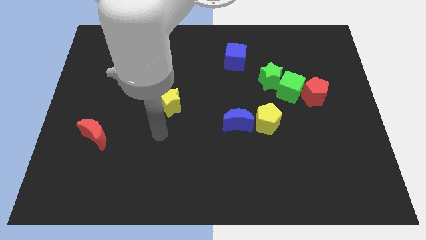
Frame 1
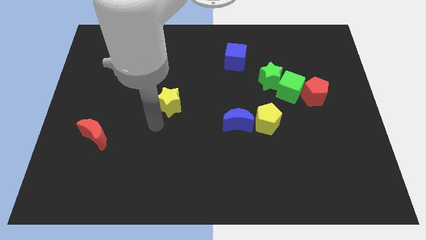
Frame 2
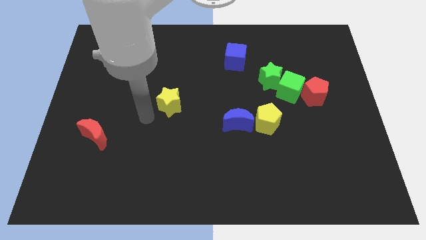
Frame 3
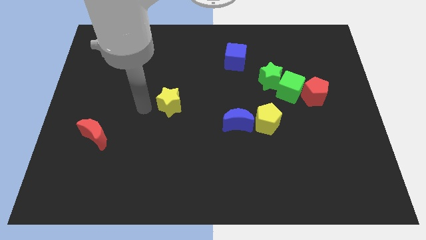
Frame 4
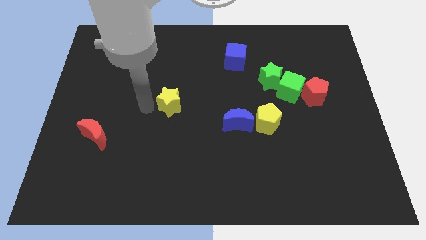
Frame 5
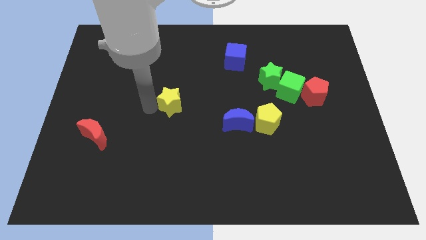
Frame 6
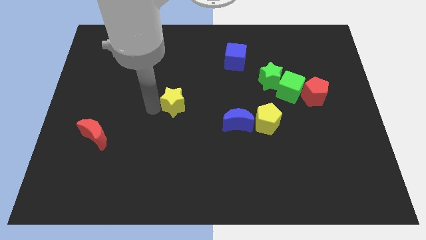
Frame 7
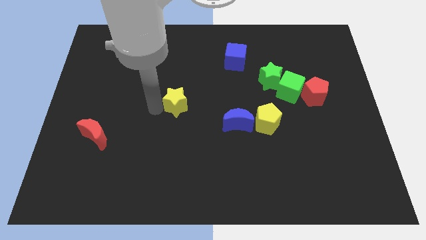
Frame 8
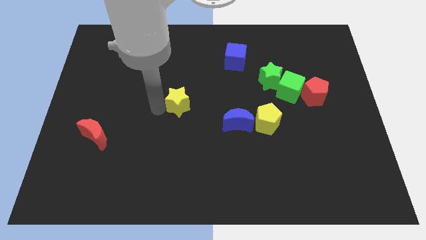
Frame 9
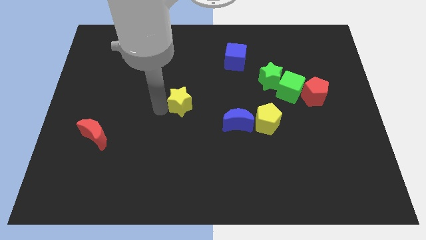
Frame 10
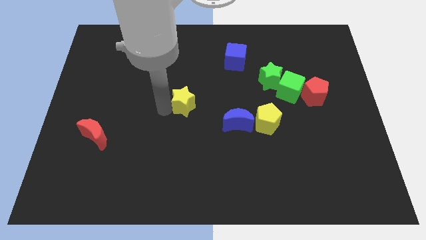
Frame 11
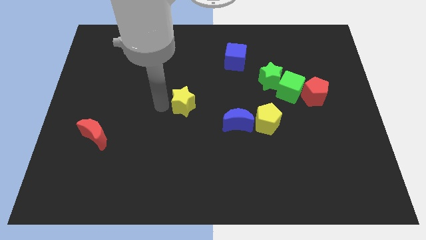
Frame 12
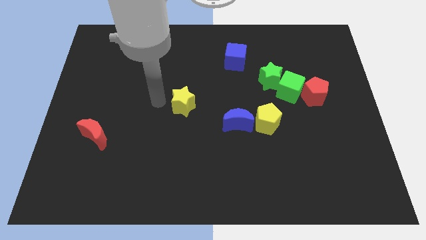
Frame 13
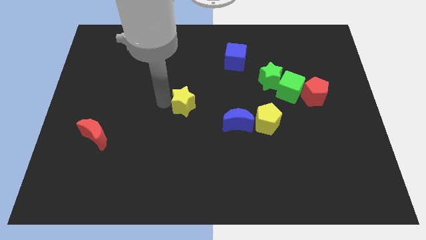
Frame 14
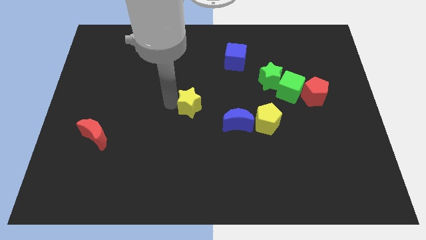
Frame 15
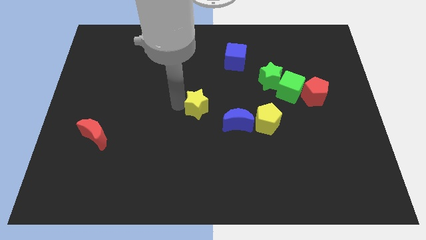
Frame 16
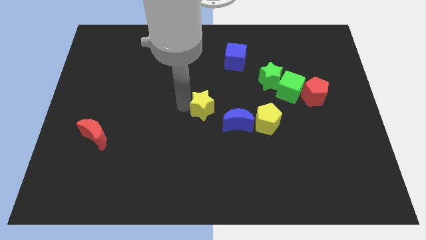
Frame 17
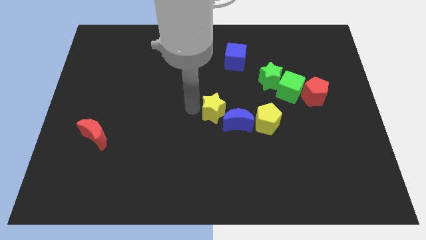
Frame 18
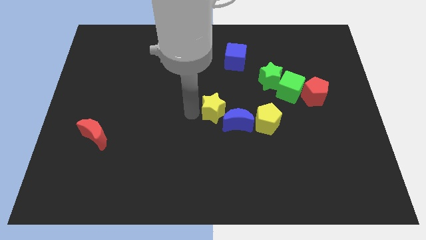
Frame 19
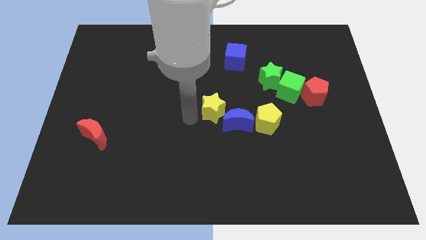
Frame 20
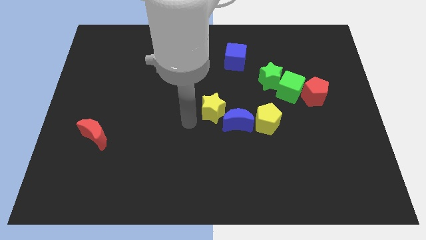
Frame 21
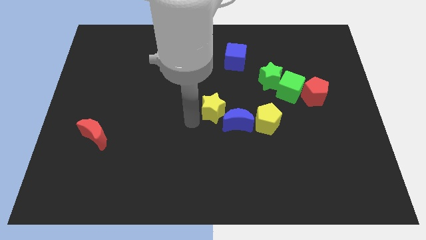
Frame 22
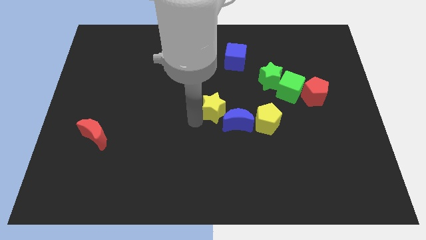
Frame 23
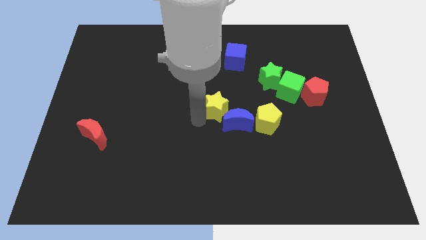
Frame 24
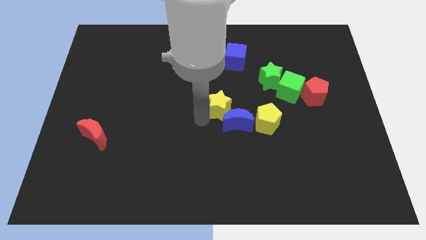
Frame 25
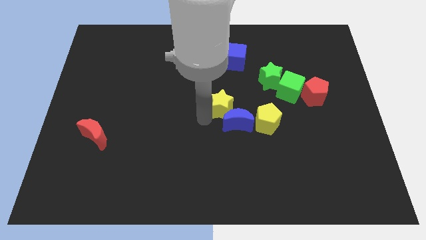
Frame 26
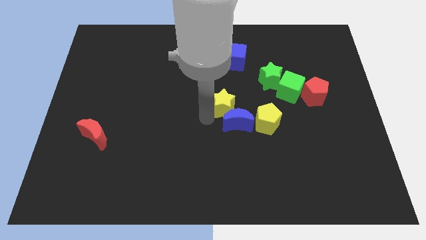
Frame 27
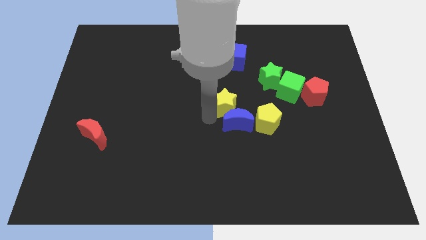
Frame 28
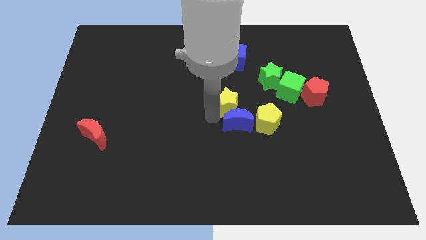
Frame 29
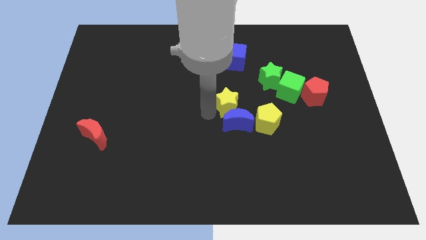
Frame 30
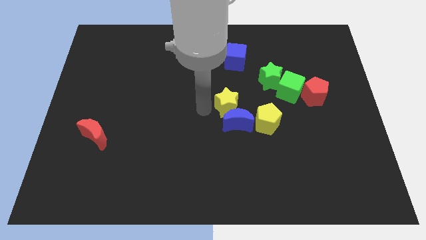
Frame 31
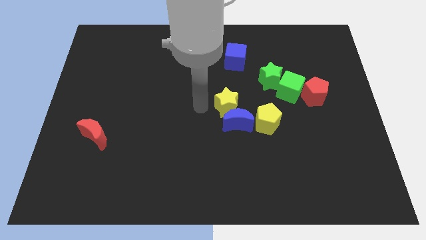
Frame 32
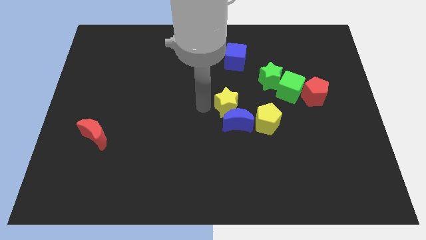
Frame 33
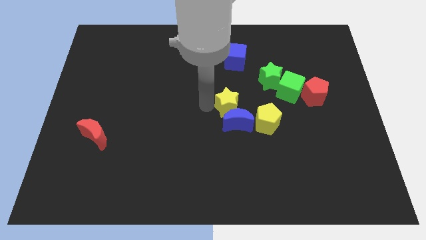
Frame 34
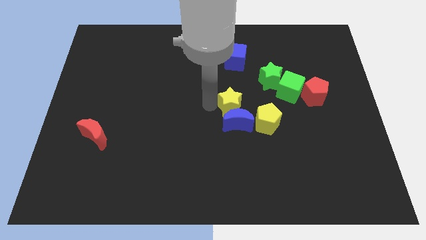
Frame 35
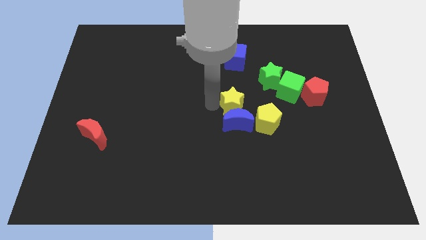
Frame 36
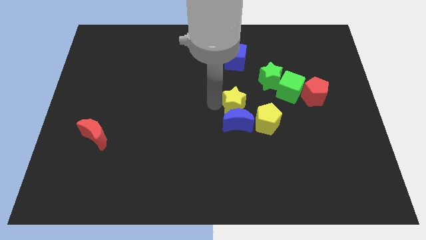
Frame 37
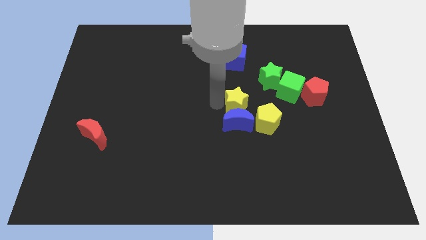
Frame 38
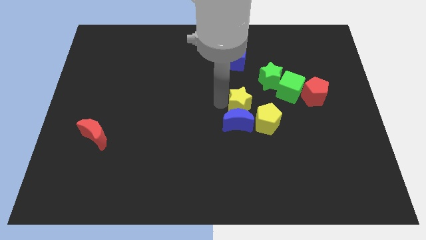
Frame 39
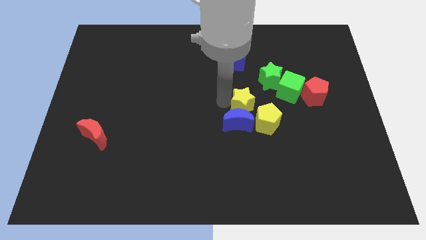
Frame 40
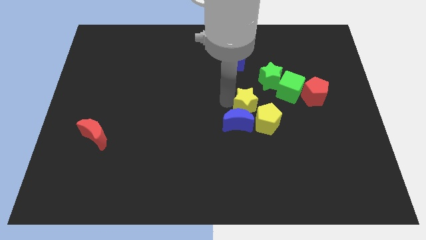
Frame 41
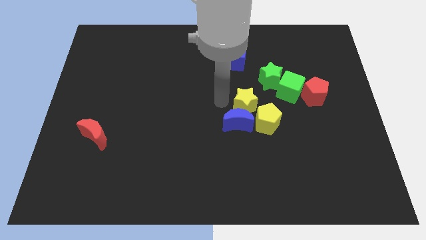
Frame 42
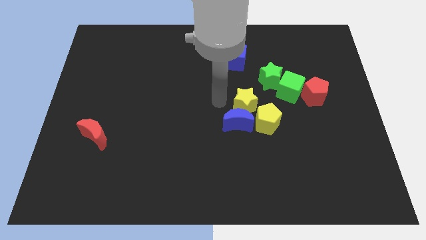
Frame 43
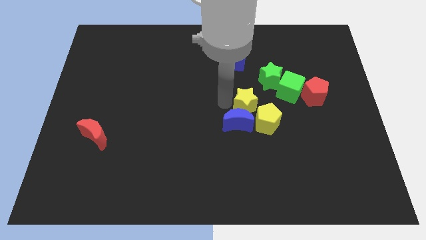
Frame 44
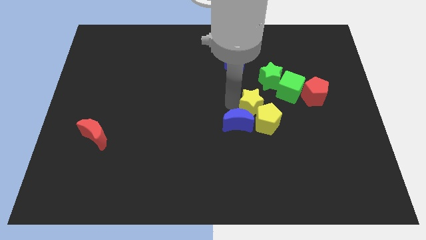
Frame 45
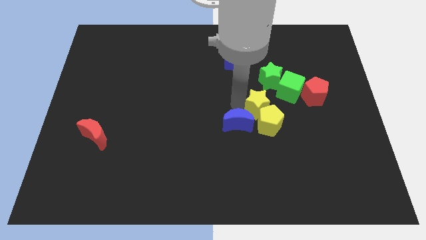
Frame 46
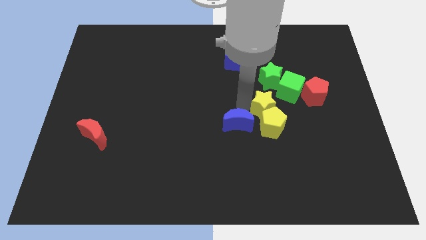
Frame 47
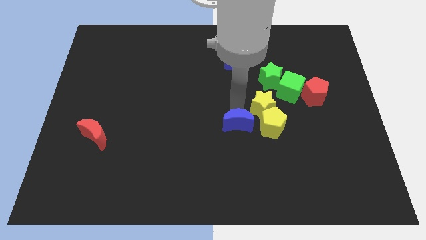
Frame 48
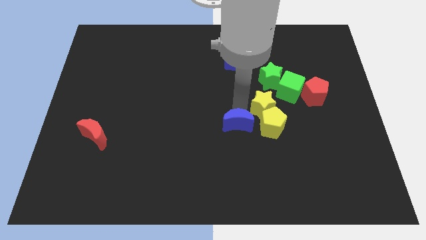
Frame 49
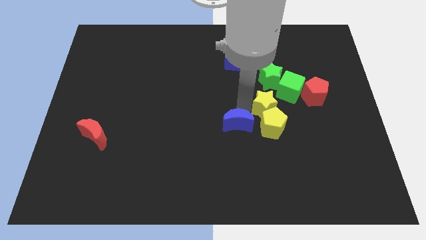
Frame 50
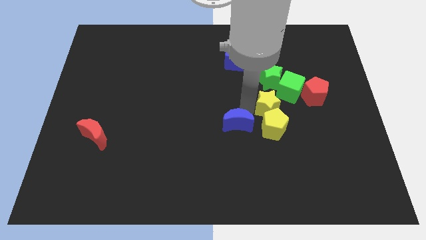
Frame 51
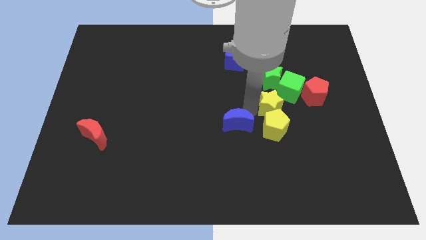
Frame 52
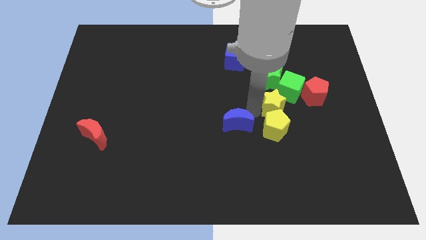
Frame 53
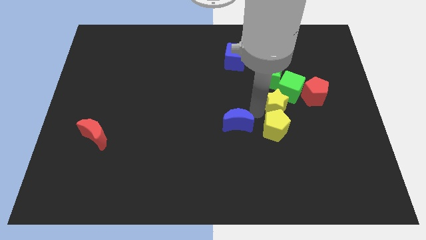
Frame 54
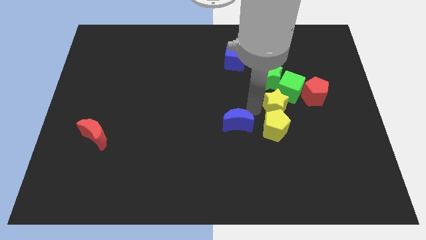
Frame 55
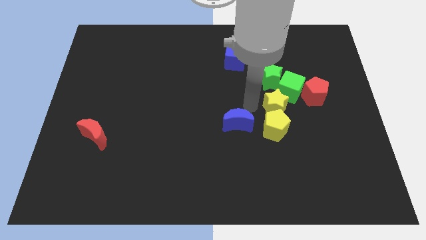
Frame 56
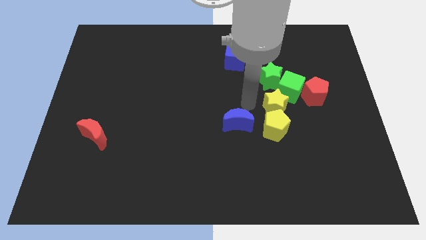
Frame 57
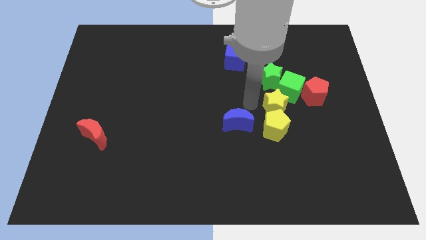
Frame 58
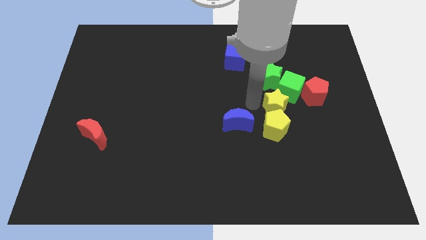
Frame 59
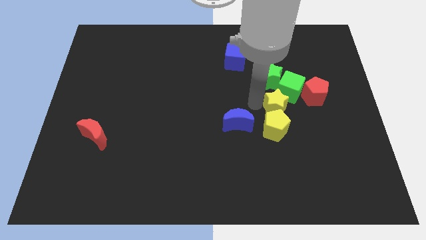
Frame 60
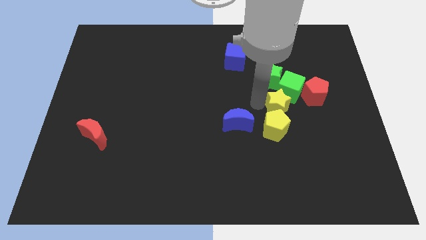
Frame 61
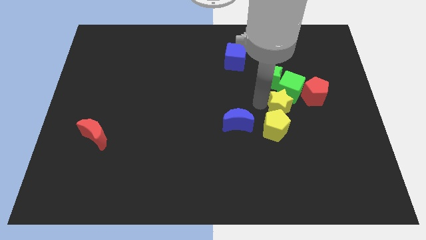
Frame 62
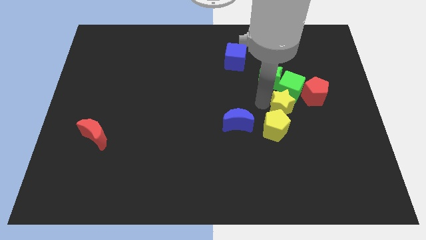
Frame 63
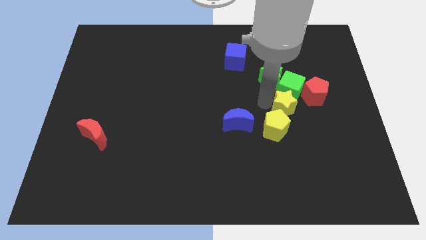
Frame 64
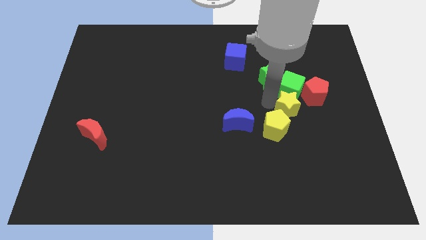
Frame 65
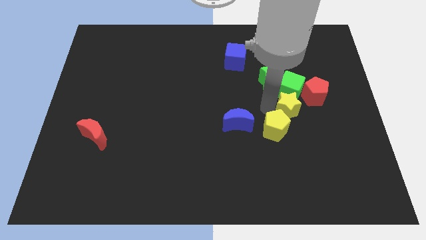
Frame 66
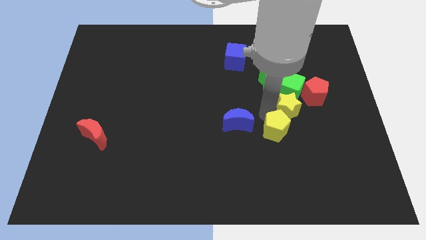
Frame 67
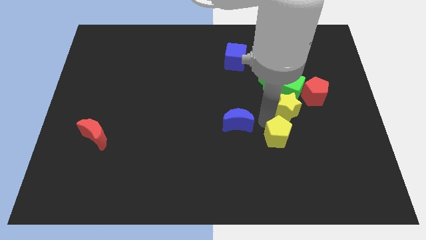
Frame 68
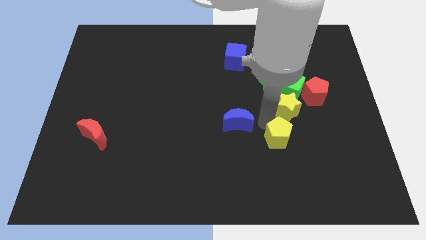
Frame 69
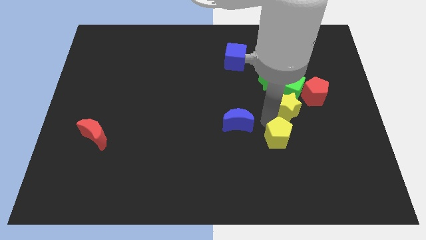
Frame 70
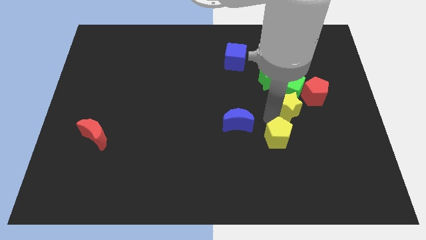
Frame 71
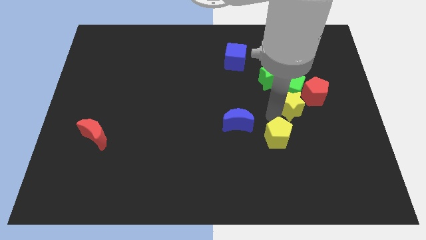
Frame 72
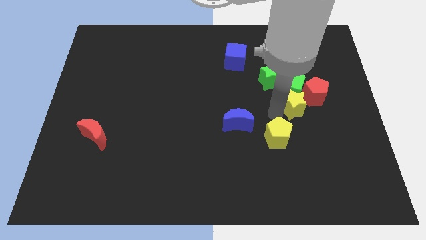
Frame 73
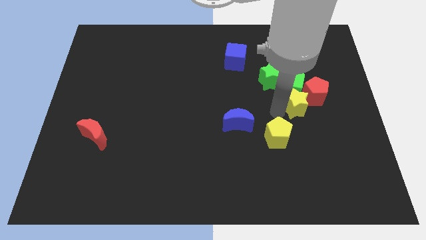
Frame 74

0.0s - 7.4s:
push the yellow star towards the red pentagon
